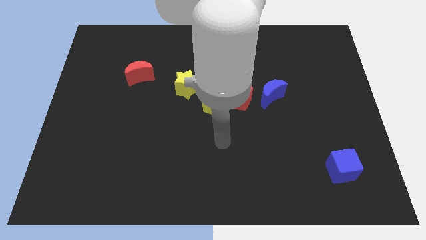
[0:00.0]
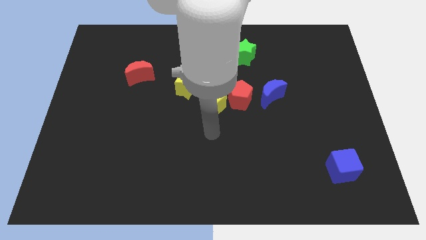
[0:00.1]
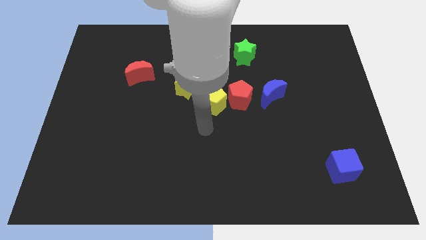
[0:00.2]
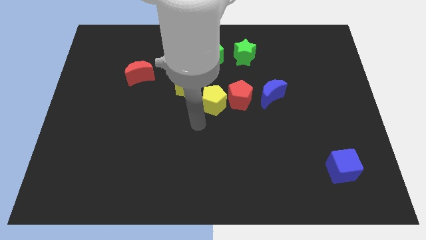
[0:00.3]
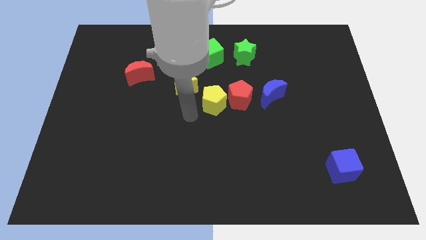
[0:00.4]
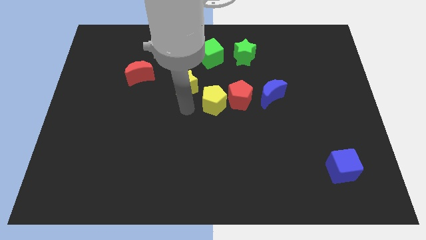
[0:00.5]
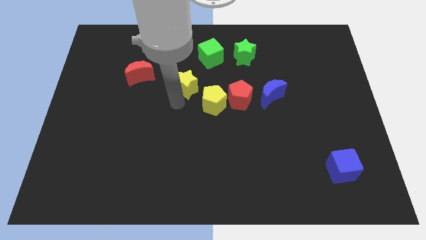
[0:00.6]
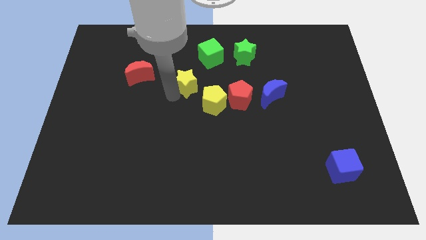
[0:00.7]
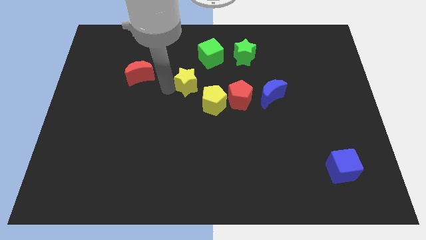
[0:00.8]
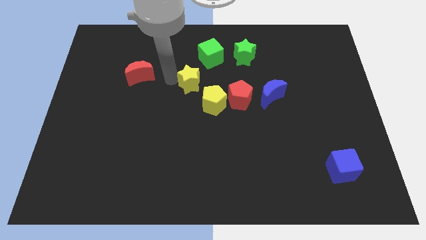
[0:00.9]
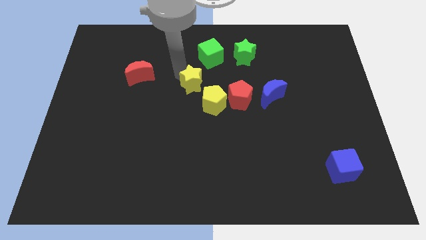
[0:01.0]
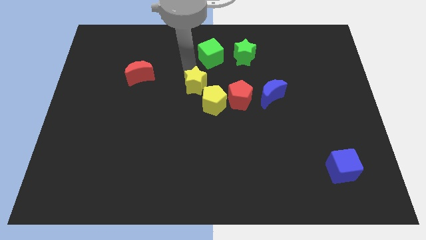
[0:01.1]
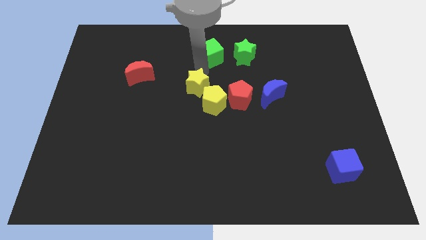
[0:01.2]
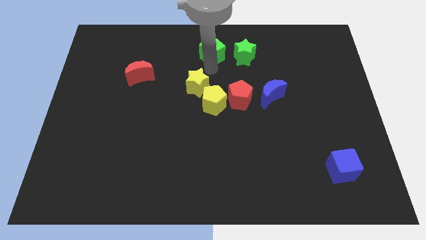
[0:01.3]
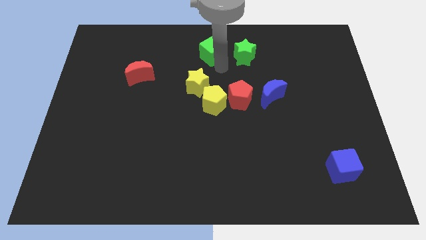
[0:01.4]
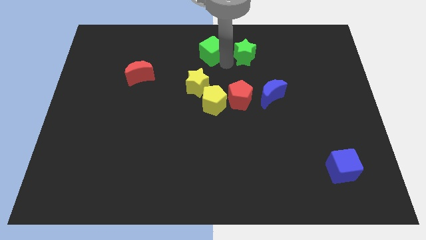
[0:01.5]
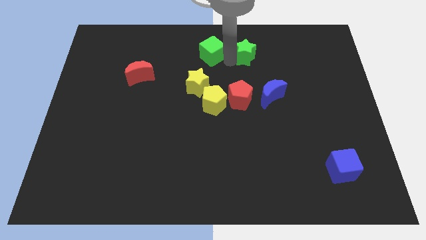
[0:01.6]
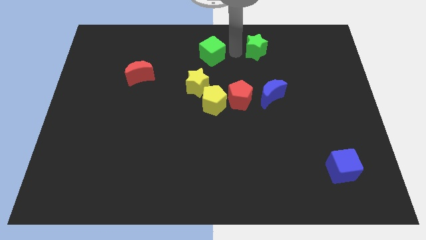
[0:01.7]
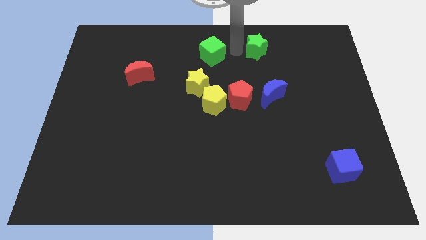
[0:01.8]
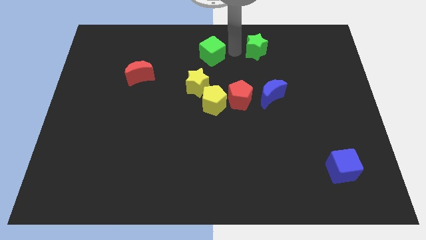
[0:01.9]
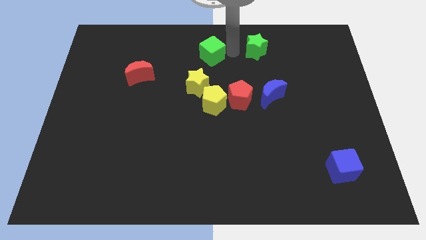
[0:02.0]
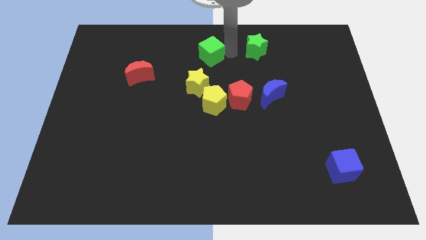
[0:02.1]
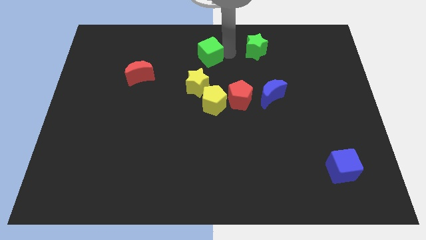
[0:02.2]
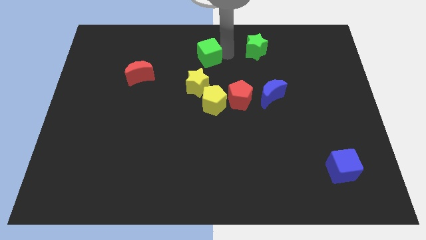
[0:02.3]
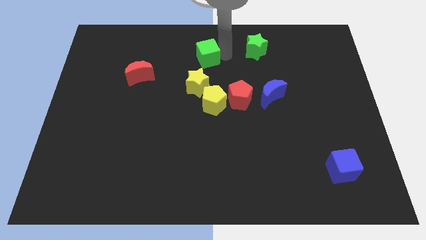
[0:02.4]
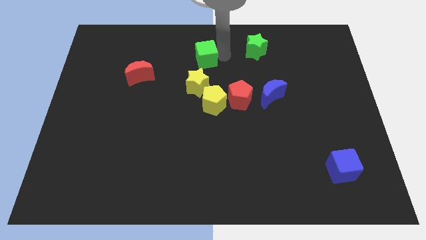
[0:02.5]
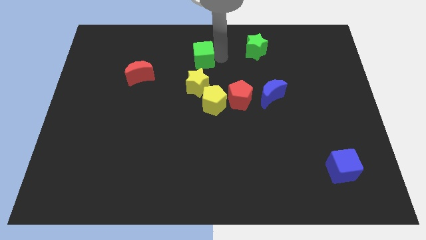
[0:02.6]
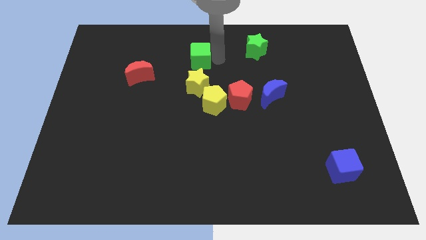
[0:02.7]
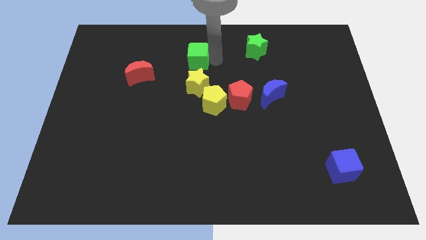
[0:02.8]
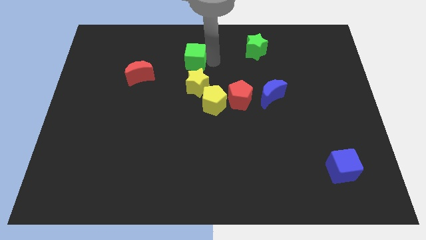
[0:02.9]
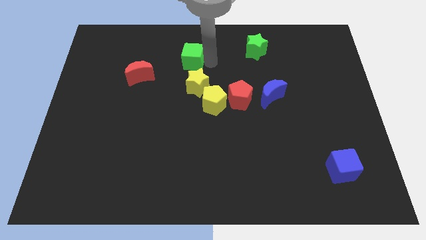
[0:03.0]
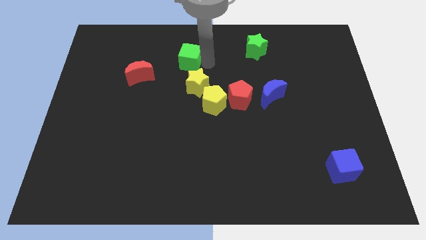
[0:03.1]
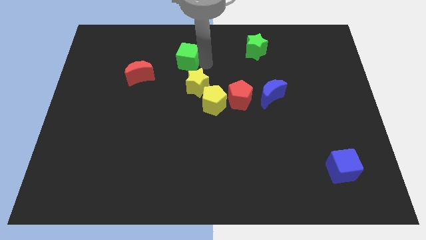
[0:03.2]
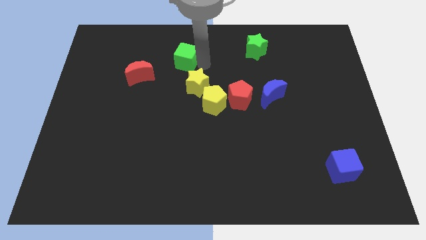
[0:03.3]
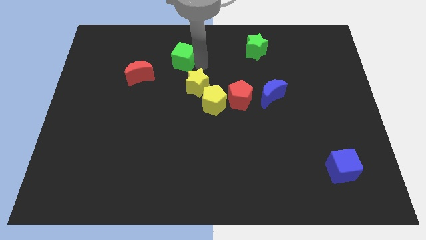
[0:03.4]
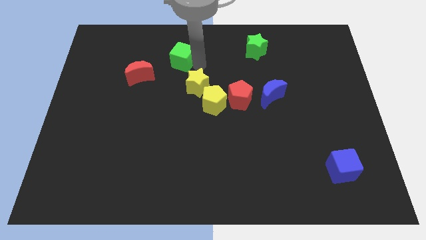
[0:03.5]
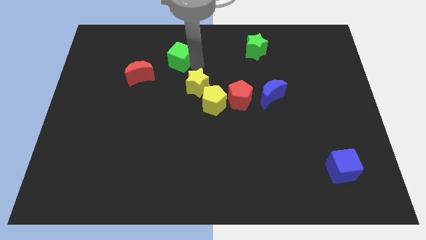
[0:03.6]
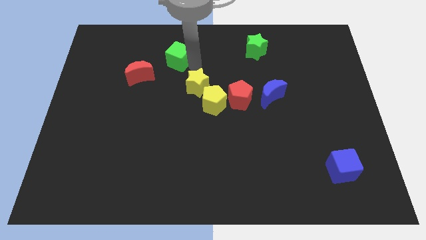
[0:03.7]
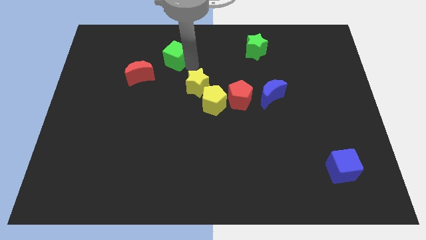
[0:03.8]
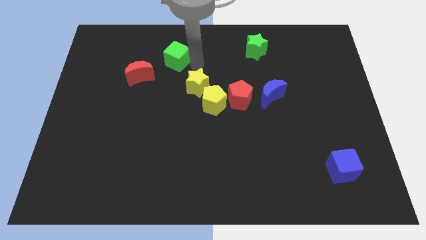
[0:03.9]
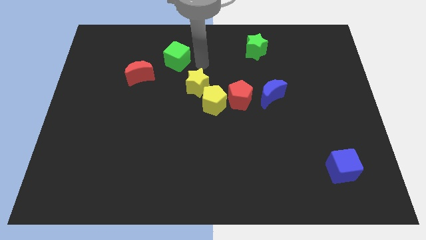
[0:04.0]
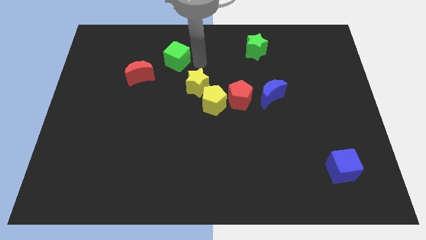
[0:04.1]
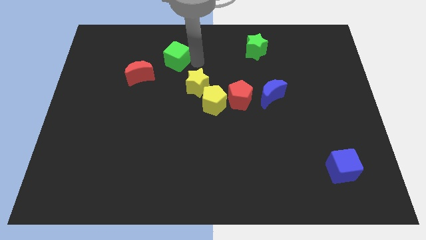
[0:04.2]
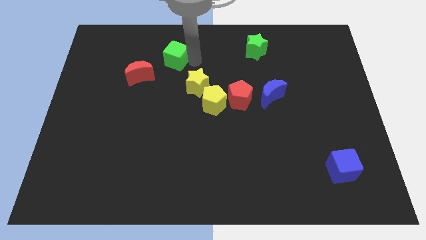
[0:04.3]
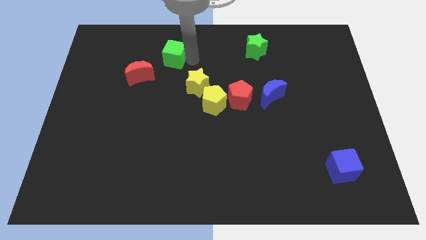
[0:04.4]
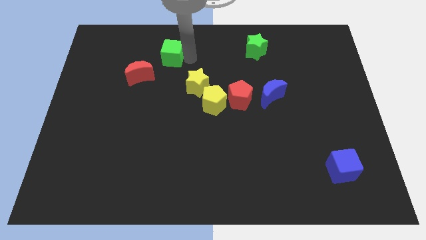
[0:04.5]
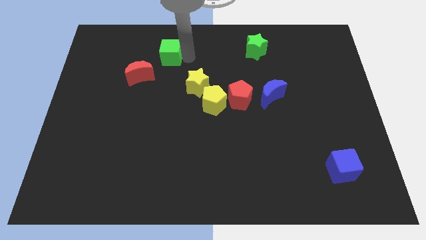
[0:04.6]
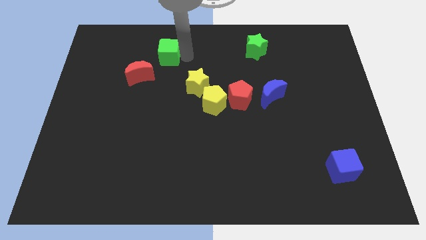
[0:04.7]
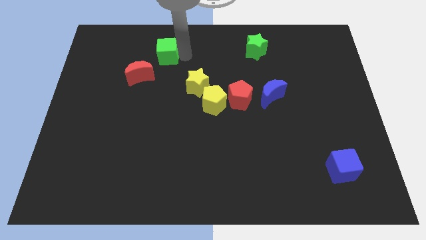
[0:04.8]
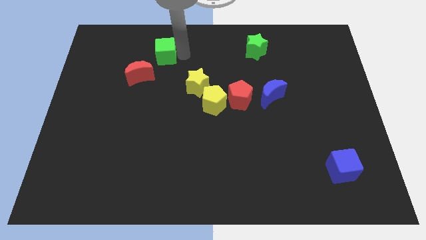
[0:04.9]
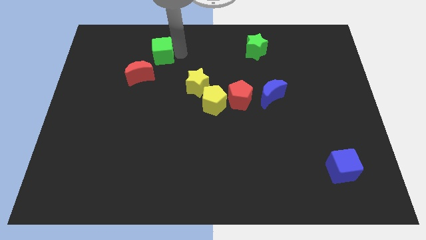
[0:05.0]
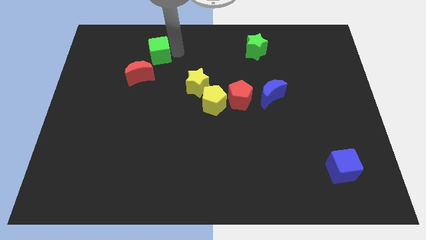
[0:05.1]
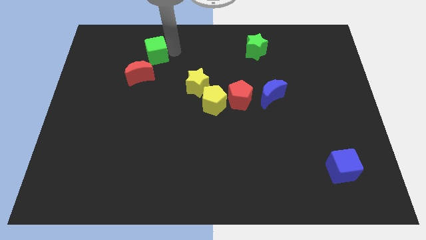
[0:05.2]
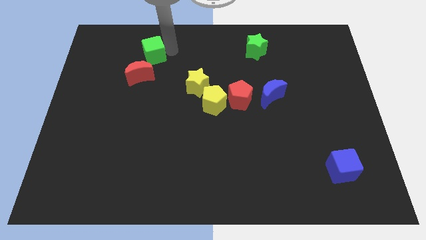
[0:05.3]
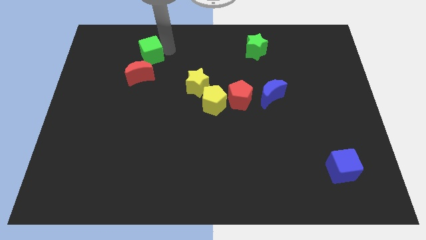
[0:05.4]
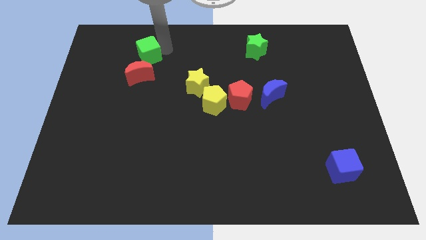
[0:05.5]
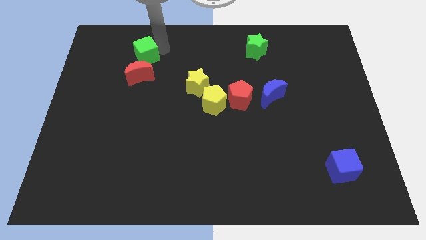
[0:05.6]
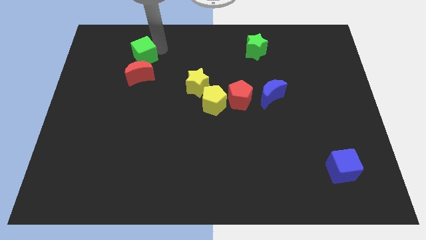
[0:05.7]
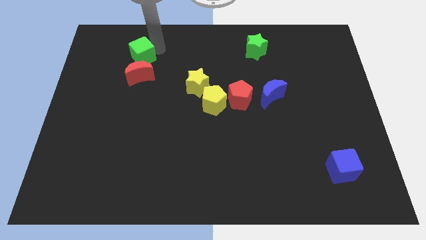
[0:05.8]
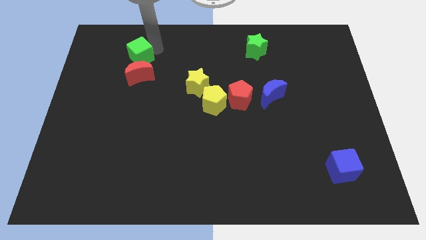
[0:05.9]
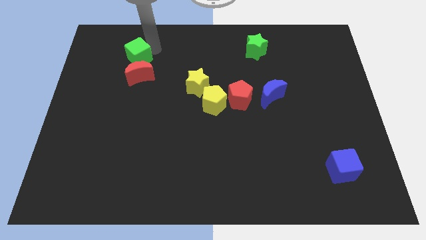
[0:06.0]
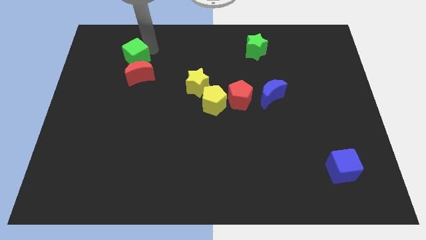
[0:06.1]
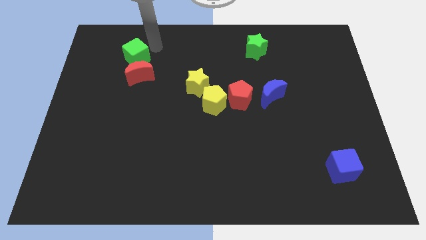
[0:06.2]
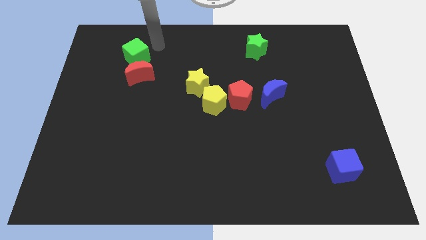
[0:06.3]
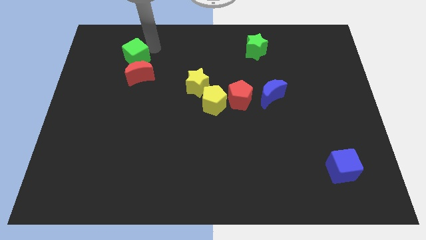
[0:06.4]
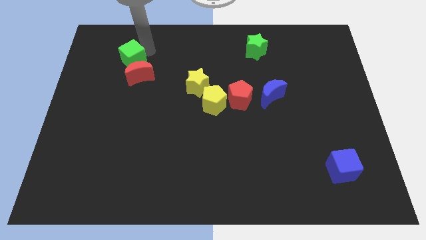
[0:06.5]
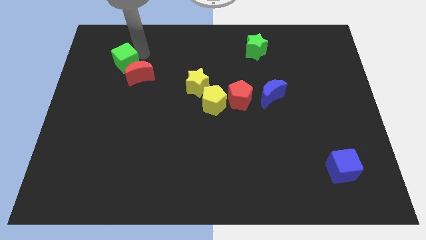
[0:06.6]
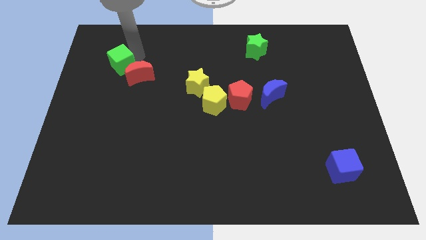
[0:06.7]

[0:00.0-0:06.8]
move the green cube left of the red moon
